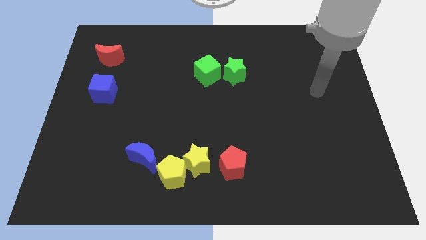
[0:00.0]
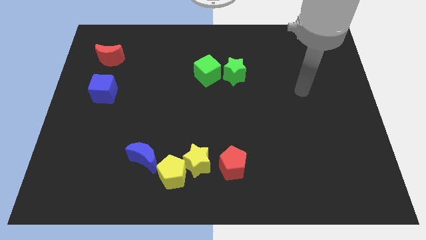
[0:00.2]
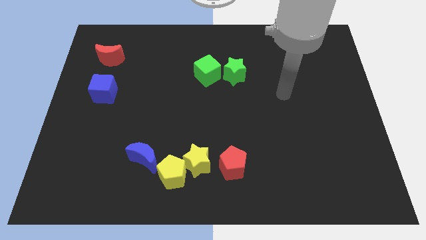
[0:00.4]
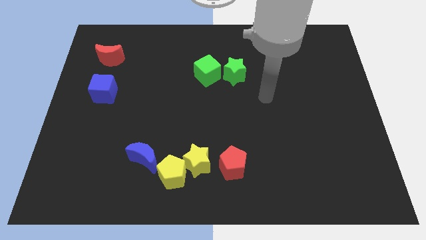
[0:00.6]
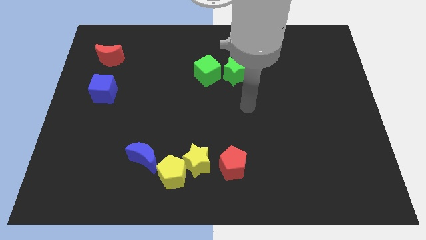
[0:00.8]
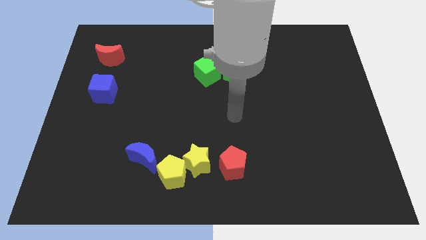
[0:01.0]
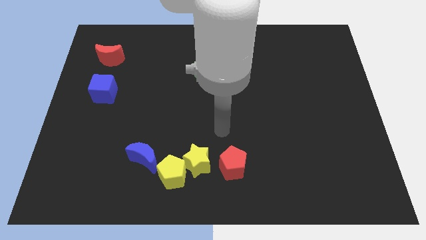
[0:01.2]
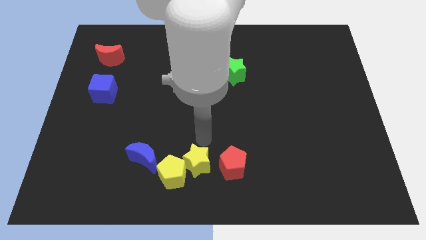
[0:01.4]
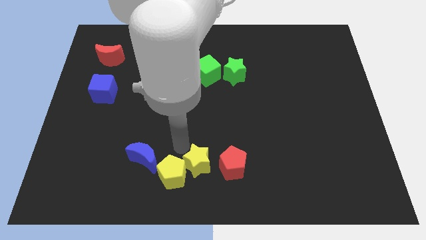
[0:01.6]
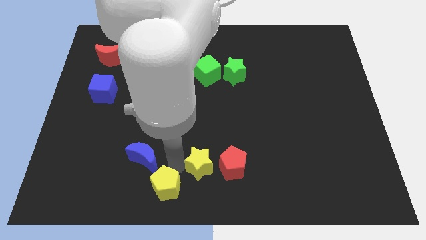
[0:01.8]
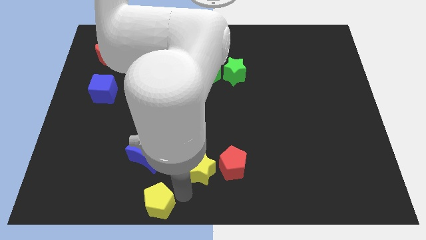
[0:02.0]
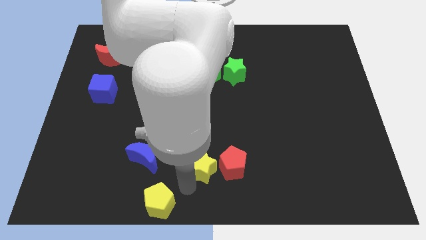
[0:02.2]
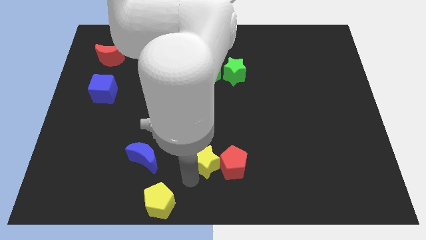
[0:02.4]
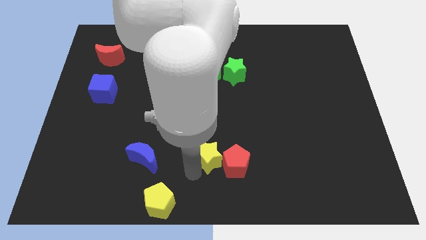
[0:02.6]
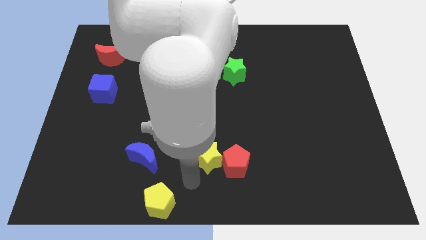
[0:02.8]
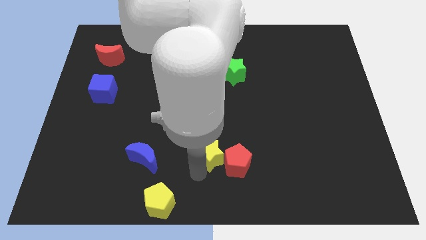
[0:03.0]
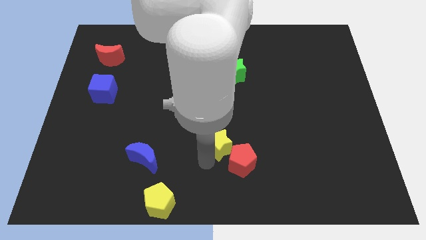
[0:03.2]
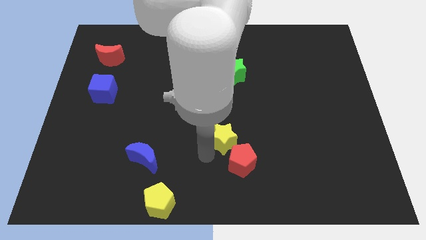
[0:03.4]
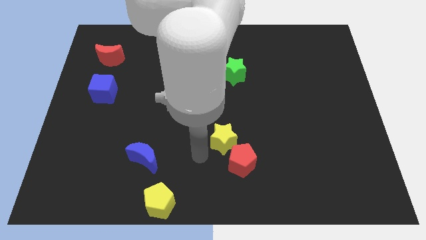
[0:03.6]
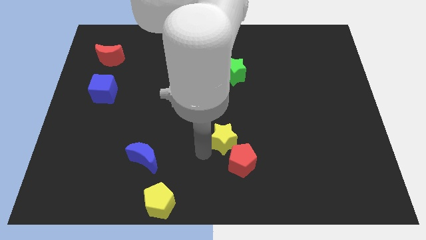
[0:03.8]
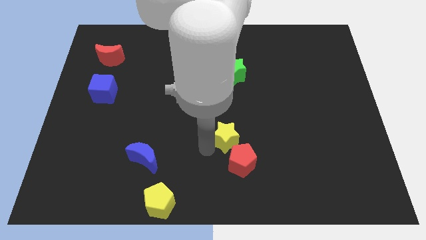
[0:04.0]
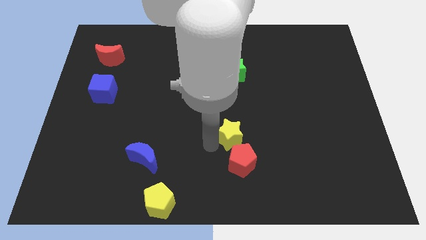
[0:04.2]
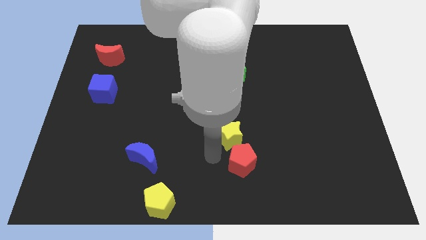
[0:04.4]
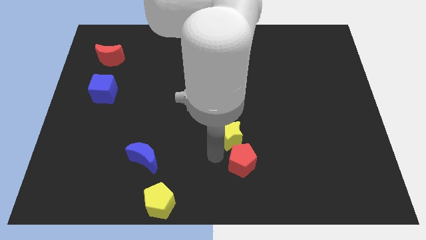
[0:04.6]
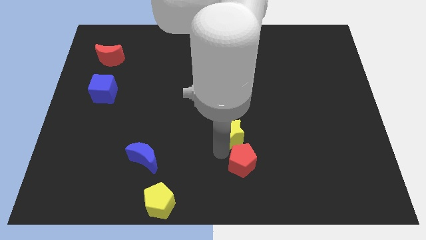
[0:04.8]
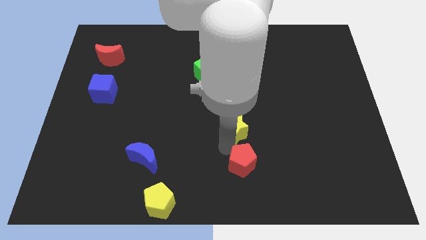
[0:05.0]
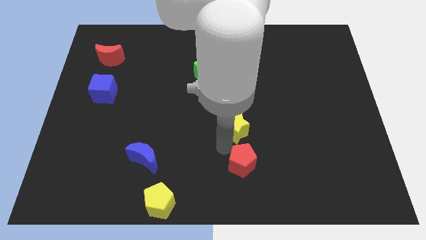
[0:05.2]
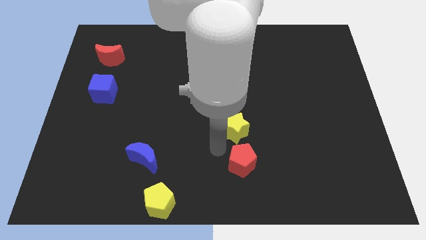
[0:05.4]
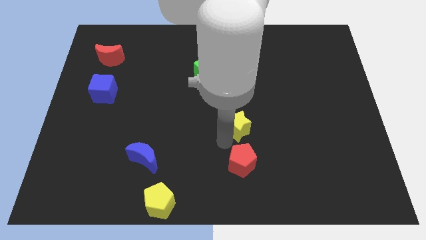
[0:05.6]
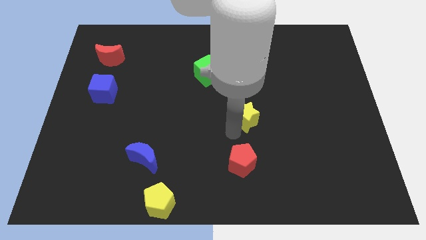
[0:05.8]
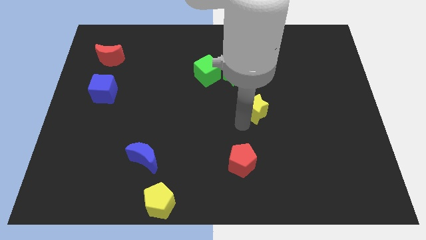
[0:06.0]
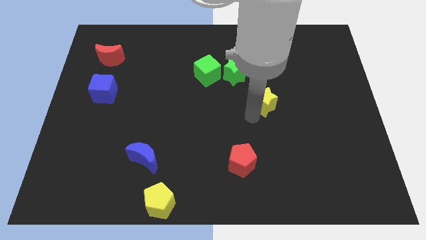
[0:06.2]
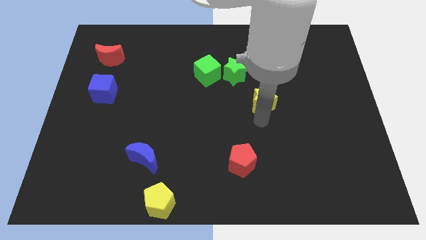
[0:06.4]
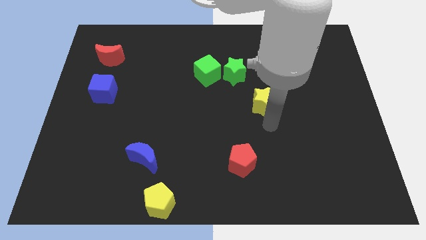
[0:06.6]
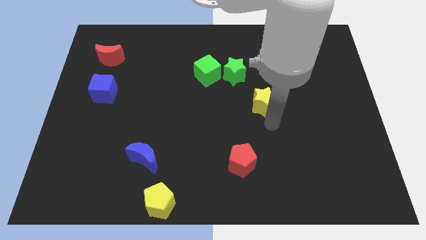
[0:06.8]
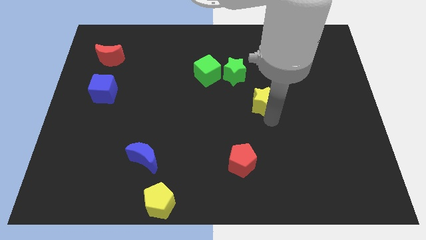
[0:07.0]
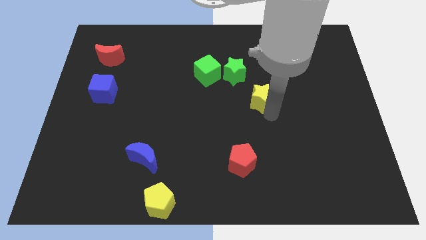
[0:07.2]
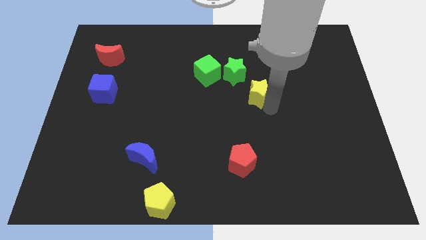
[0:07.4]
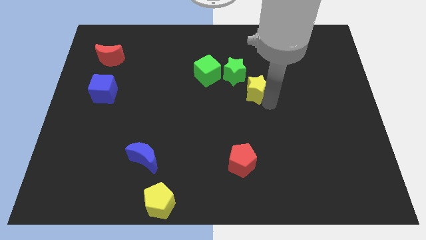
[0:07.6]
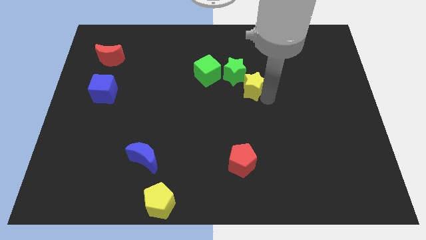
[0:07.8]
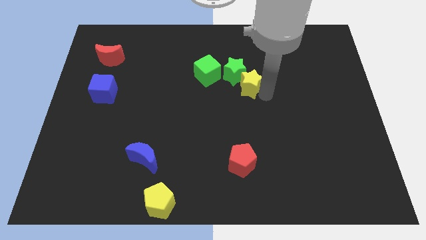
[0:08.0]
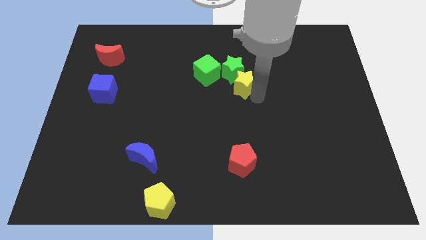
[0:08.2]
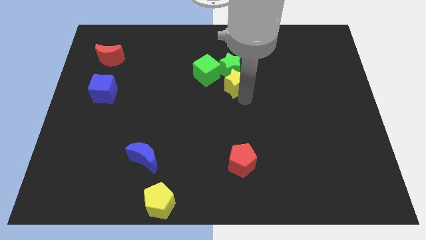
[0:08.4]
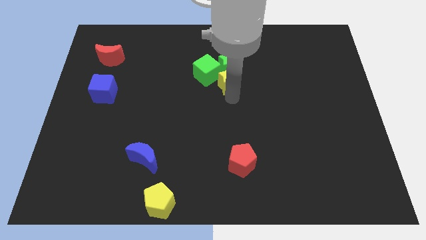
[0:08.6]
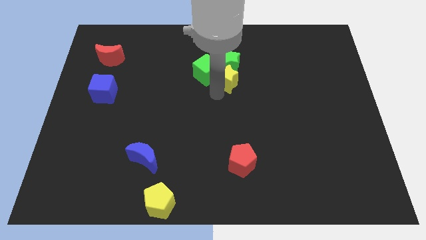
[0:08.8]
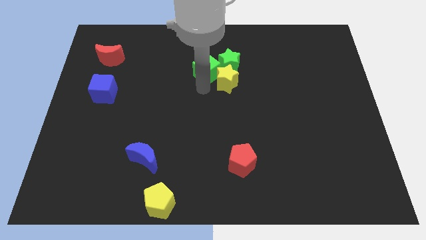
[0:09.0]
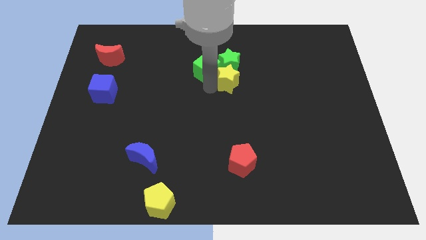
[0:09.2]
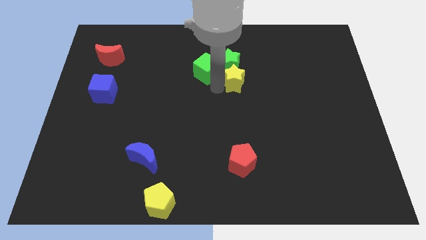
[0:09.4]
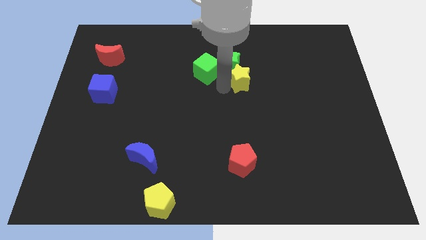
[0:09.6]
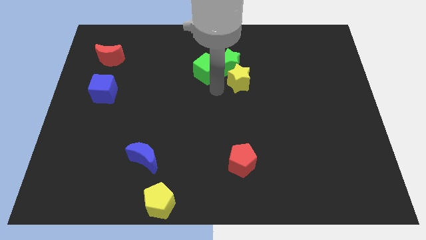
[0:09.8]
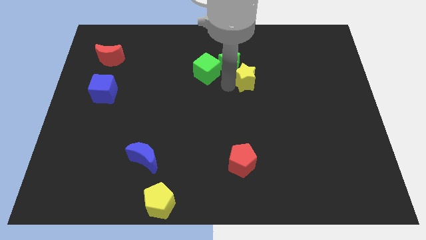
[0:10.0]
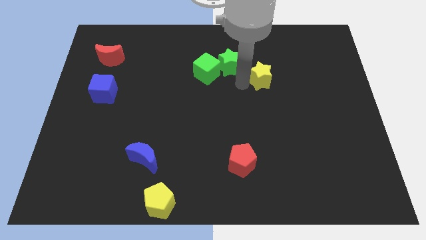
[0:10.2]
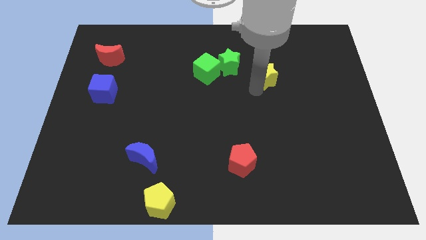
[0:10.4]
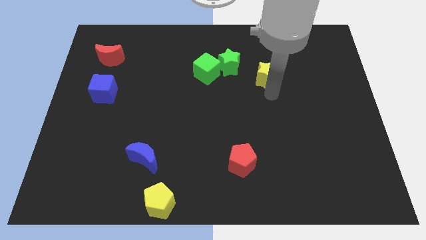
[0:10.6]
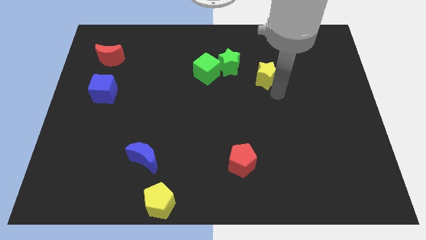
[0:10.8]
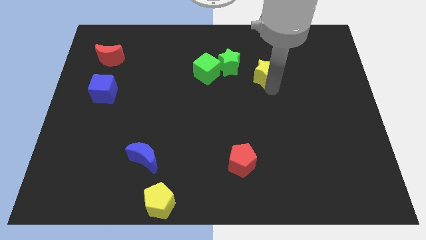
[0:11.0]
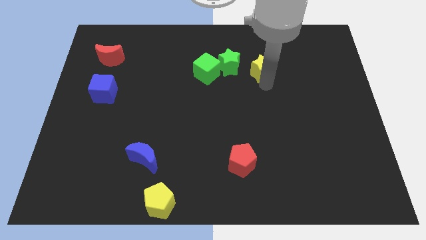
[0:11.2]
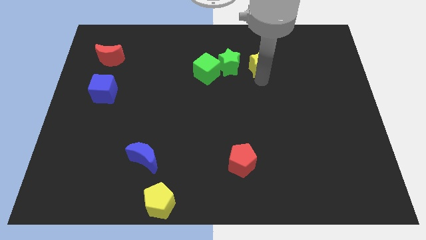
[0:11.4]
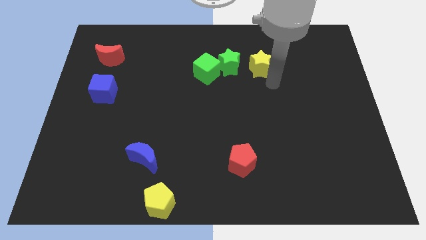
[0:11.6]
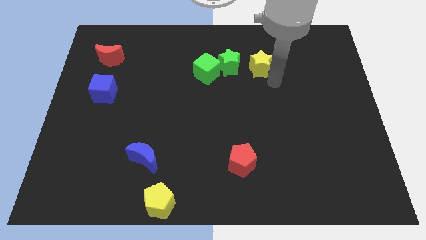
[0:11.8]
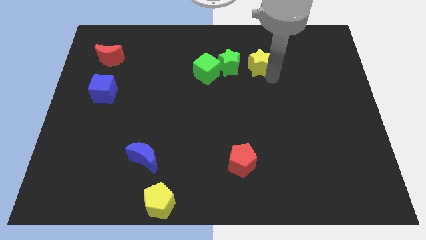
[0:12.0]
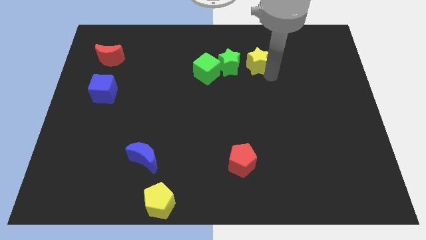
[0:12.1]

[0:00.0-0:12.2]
put the yellow star diagonally up and to the right of the green star

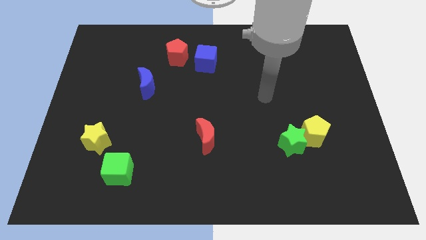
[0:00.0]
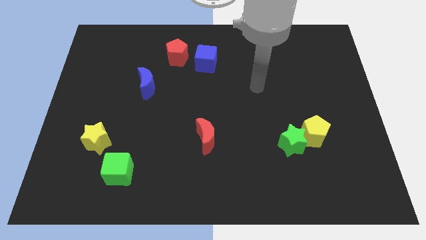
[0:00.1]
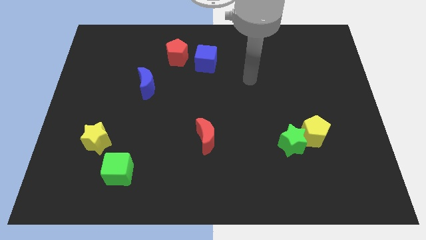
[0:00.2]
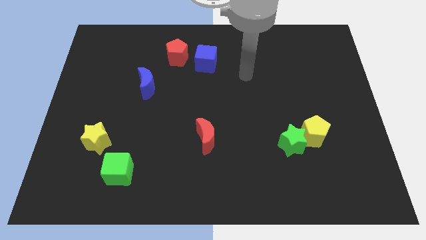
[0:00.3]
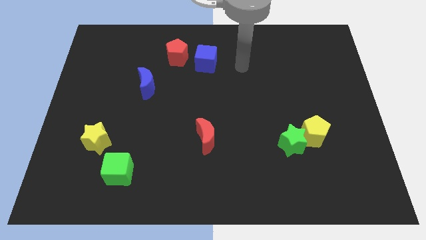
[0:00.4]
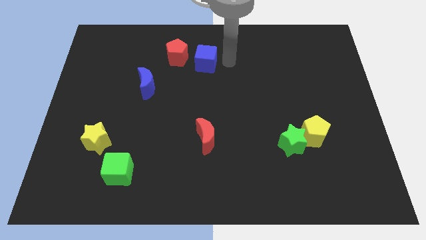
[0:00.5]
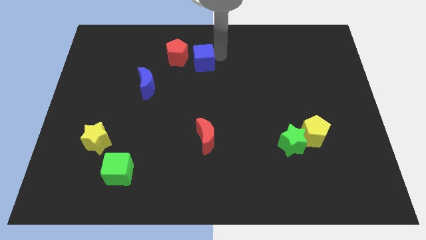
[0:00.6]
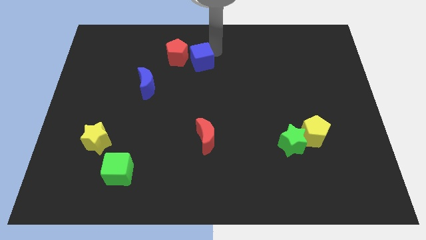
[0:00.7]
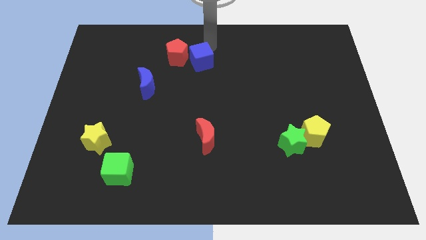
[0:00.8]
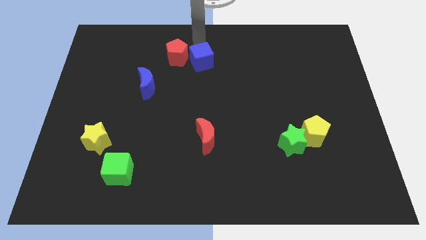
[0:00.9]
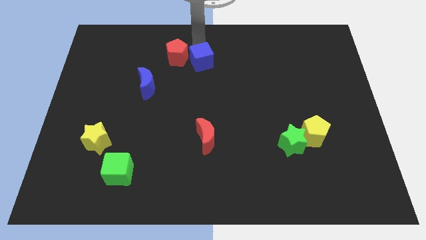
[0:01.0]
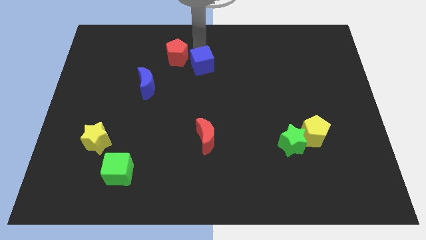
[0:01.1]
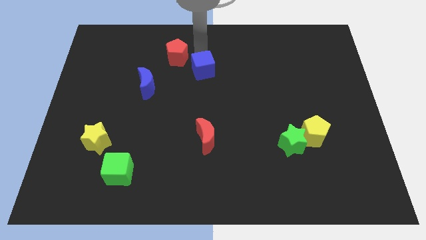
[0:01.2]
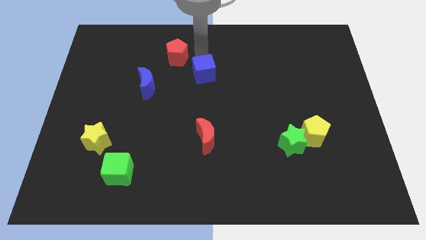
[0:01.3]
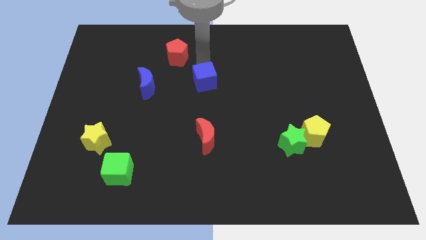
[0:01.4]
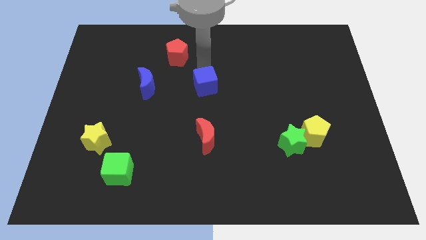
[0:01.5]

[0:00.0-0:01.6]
push the blue cube to the top of the red moon
